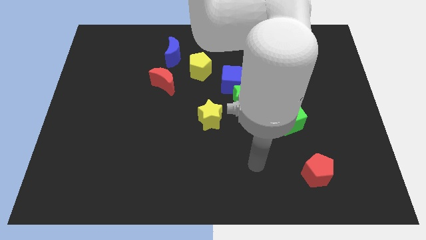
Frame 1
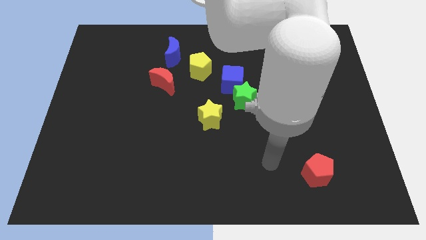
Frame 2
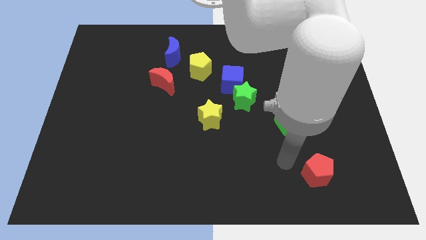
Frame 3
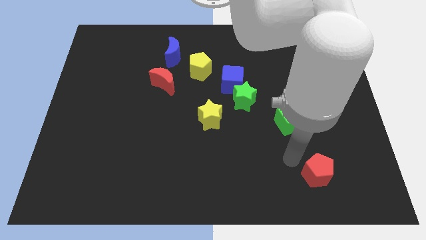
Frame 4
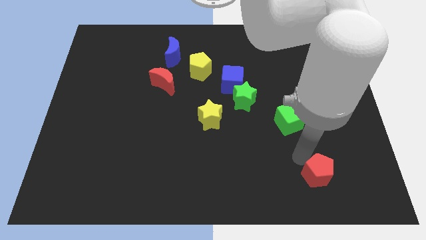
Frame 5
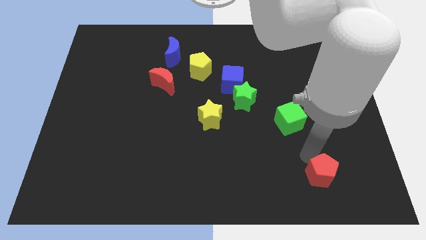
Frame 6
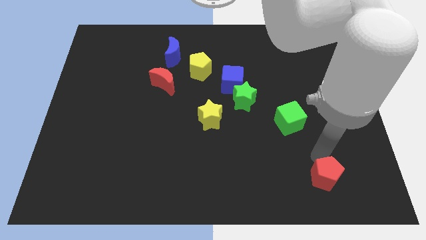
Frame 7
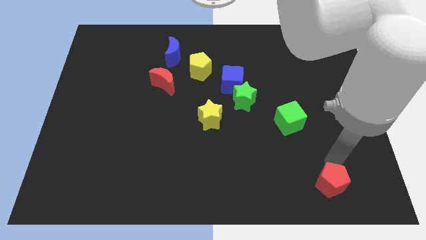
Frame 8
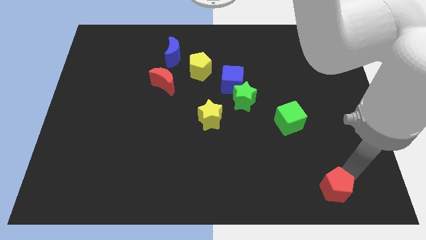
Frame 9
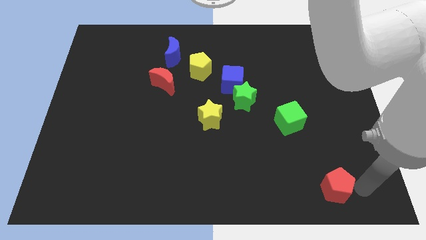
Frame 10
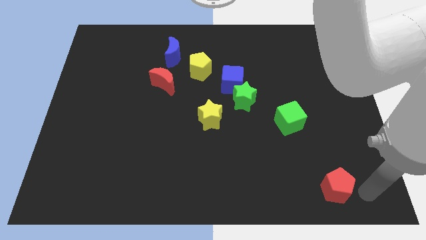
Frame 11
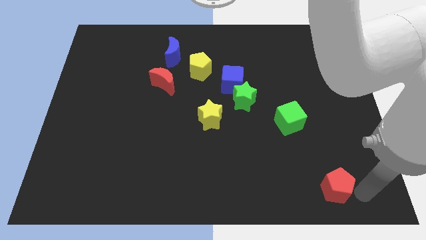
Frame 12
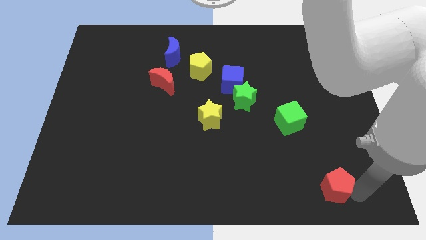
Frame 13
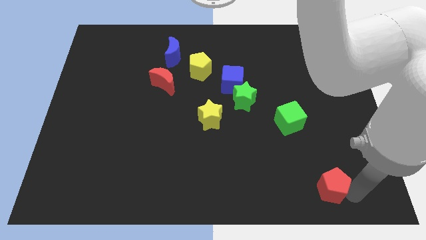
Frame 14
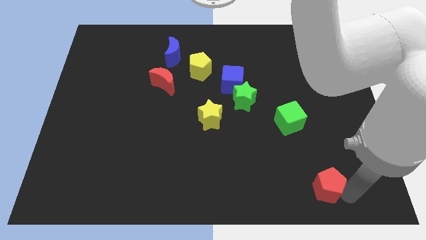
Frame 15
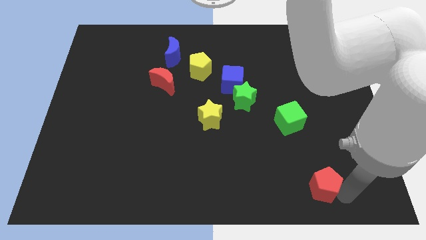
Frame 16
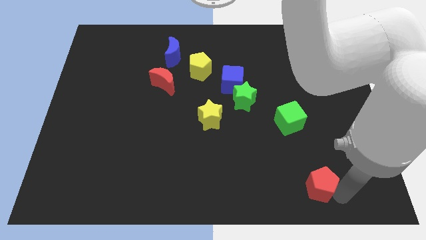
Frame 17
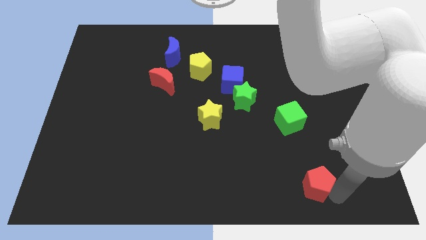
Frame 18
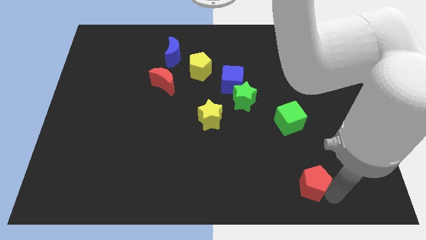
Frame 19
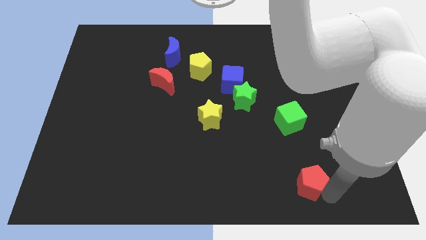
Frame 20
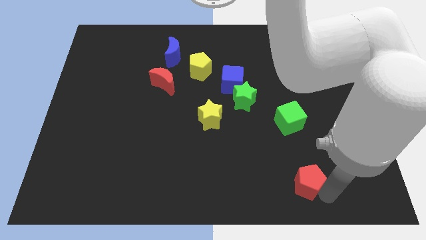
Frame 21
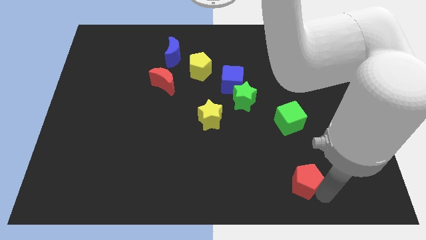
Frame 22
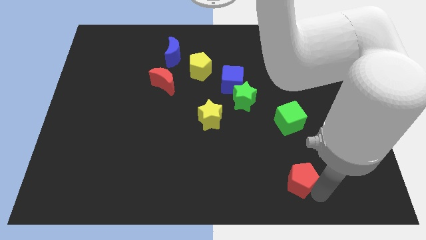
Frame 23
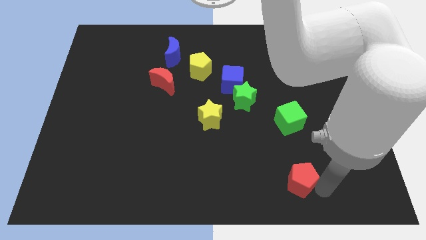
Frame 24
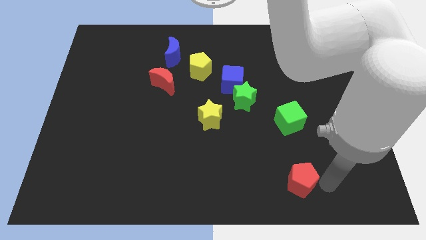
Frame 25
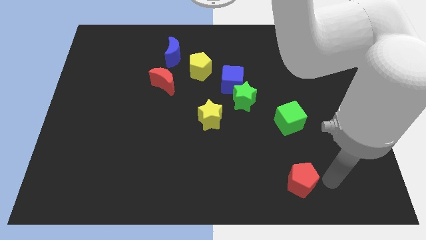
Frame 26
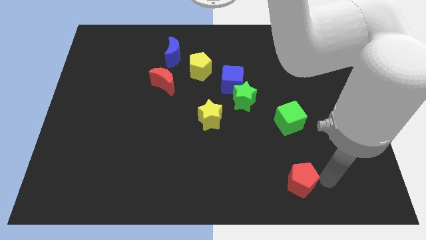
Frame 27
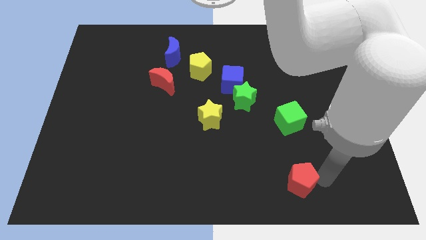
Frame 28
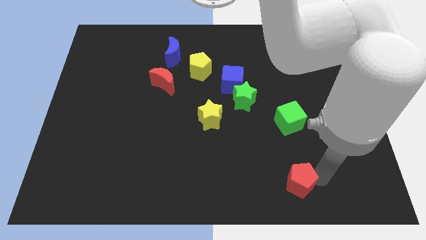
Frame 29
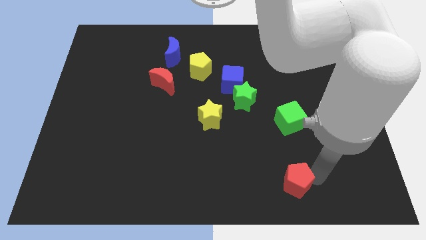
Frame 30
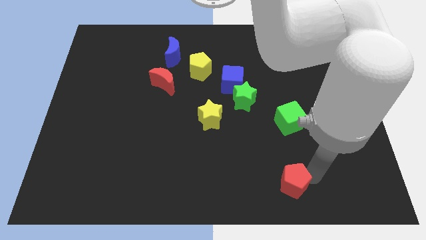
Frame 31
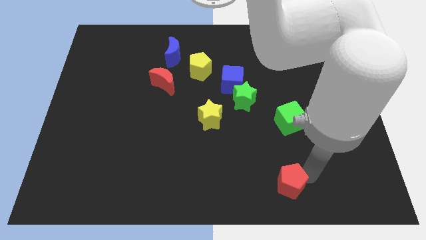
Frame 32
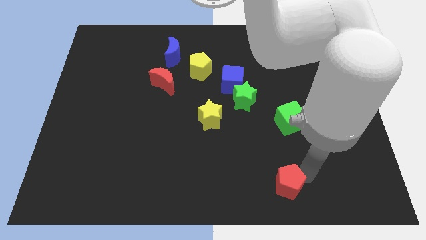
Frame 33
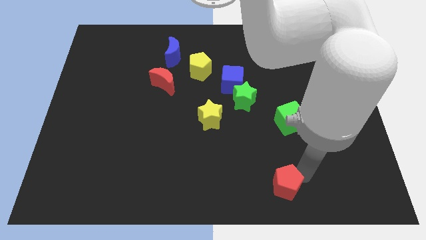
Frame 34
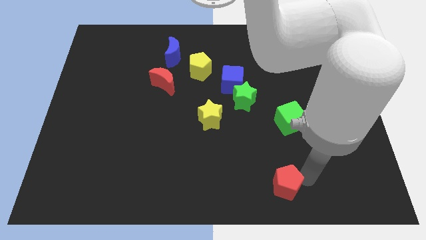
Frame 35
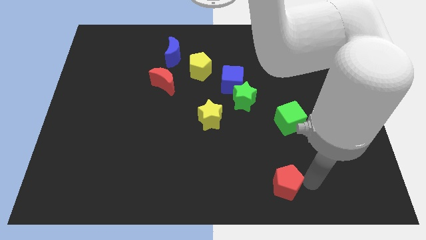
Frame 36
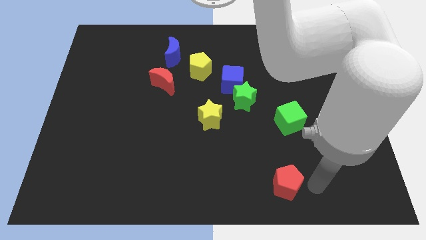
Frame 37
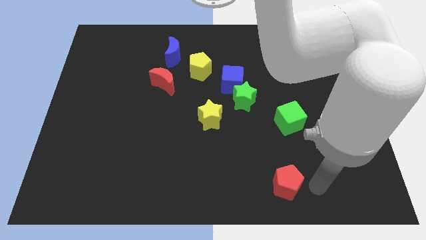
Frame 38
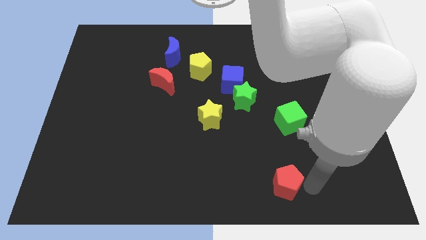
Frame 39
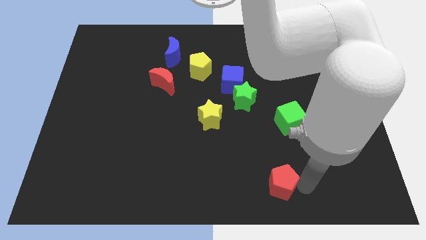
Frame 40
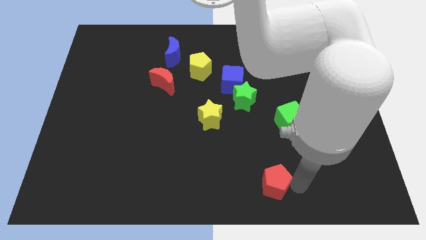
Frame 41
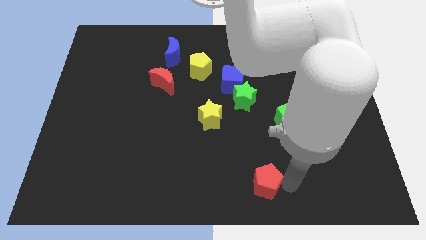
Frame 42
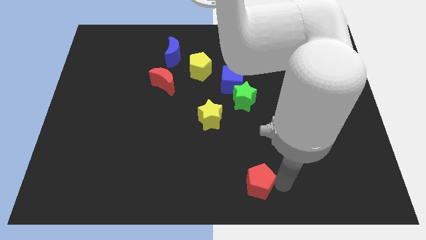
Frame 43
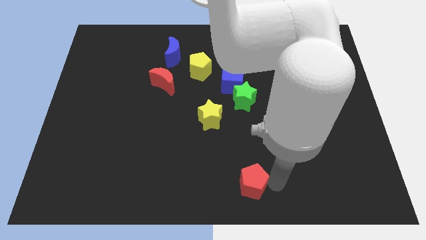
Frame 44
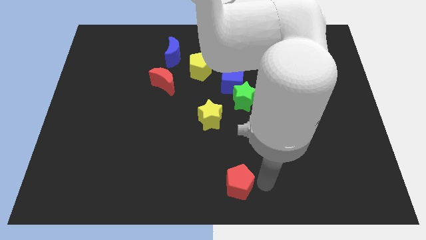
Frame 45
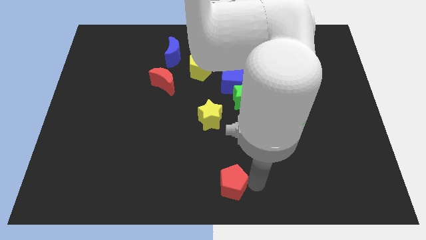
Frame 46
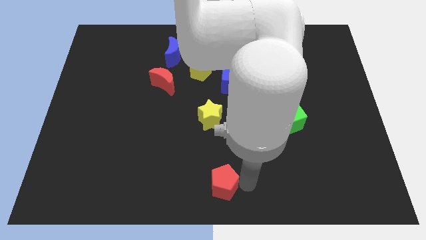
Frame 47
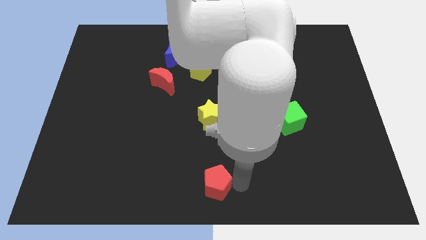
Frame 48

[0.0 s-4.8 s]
push the red pentagon left

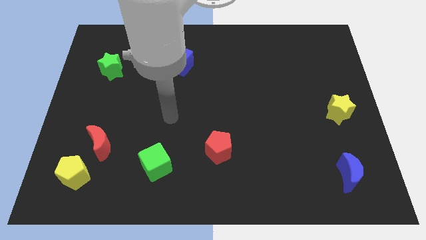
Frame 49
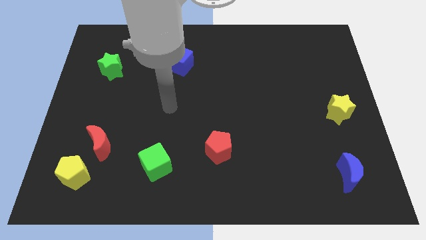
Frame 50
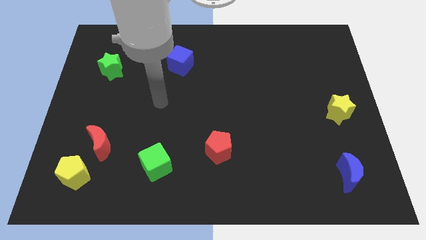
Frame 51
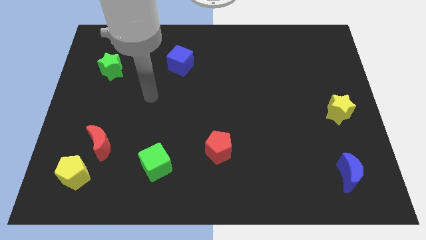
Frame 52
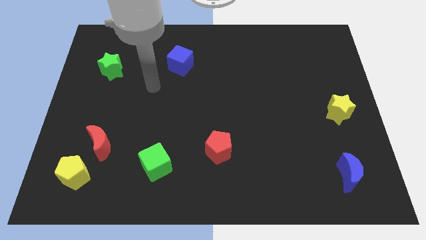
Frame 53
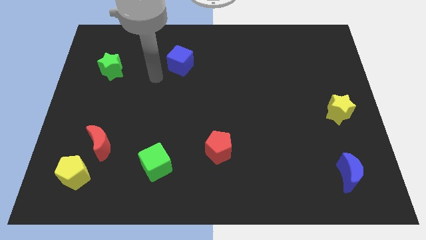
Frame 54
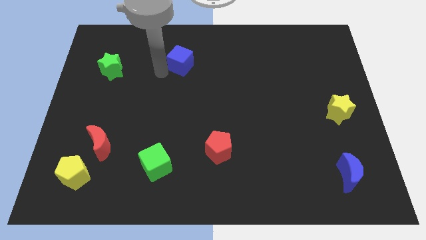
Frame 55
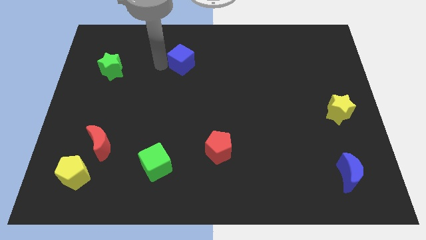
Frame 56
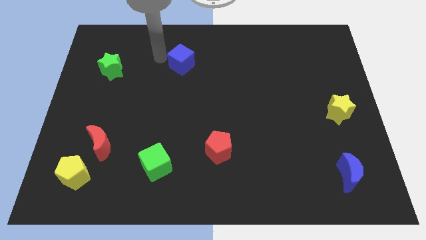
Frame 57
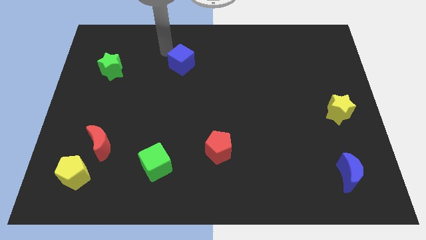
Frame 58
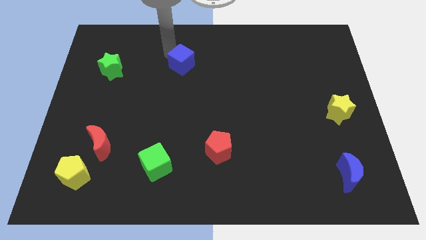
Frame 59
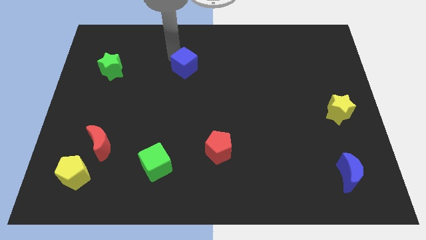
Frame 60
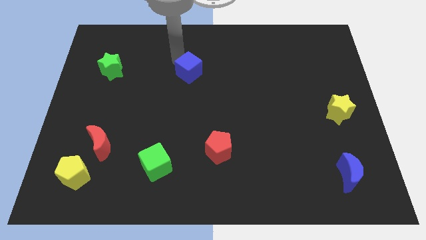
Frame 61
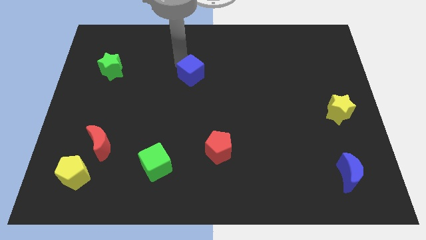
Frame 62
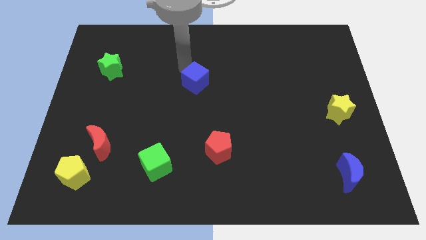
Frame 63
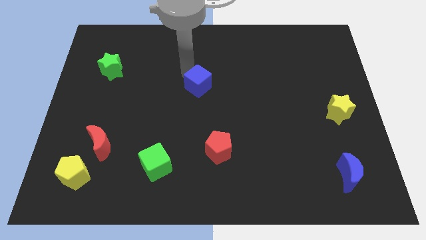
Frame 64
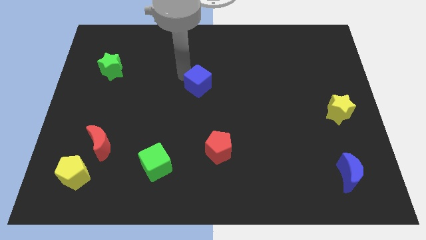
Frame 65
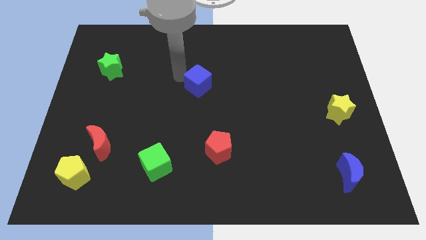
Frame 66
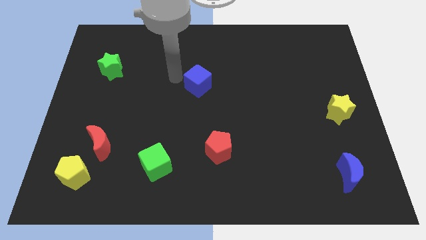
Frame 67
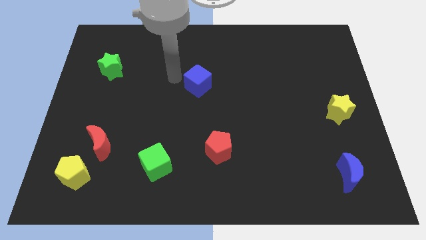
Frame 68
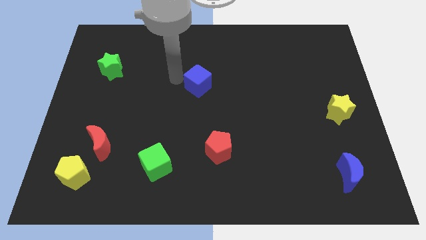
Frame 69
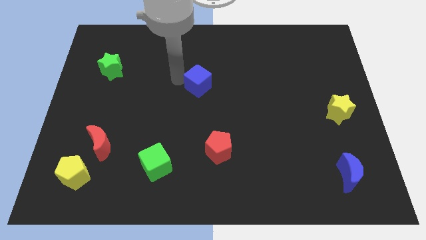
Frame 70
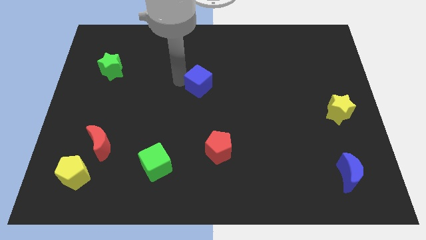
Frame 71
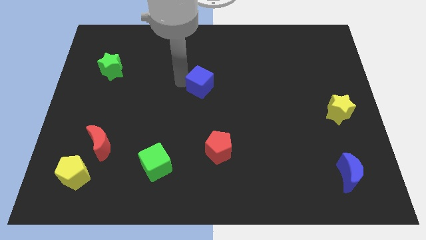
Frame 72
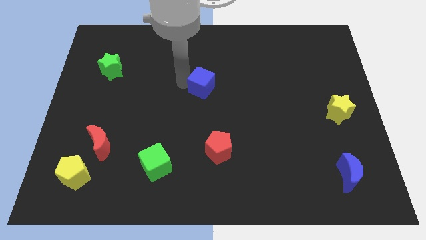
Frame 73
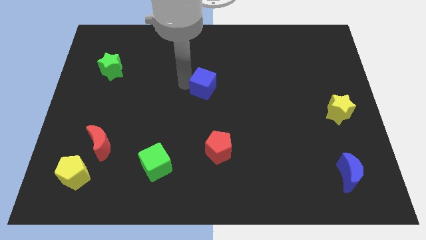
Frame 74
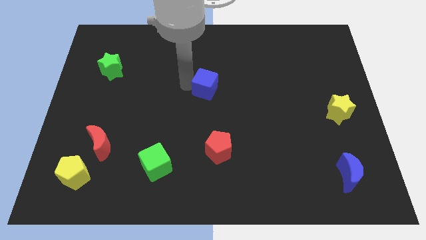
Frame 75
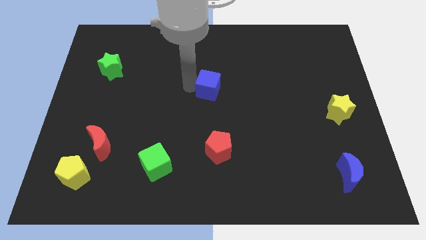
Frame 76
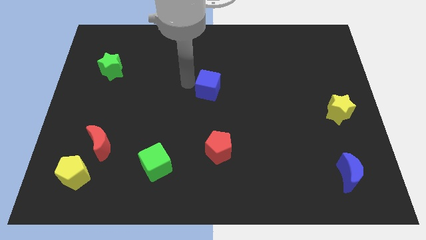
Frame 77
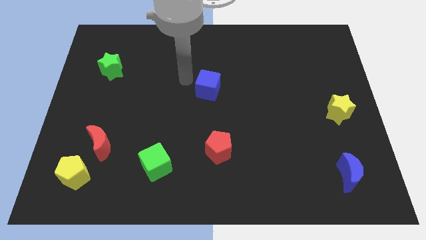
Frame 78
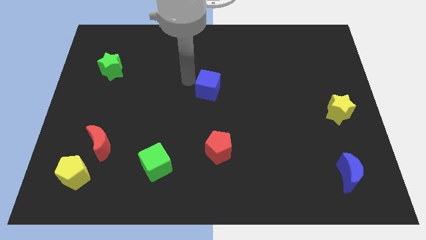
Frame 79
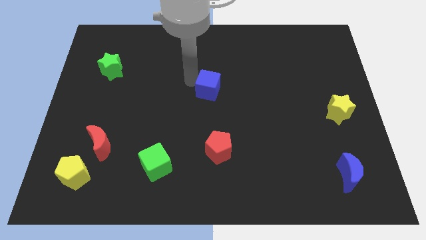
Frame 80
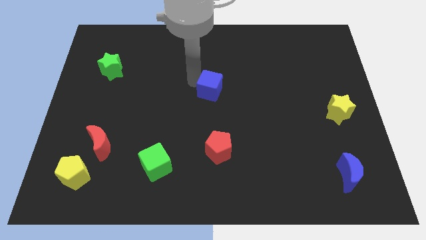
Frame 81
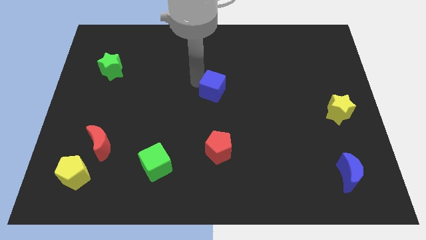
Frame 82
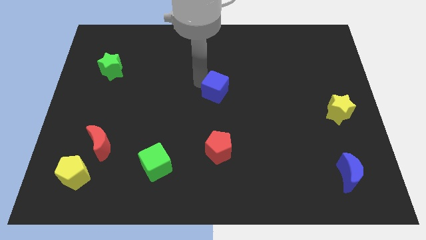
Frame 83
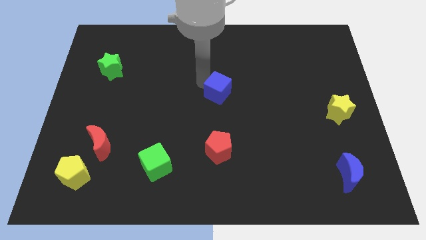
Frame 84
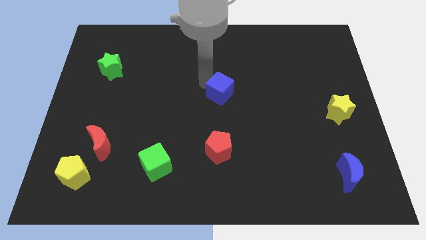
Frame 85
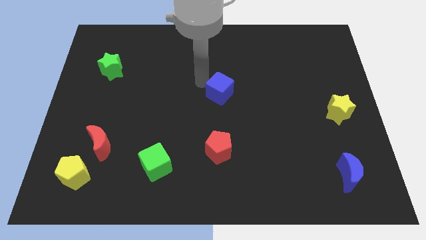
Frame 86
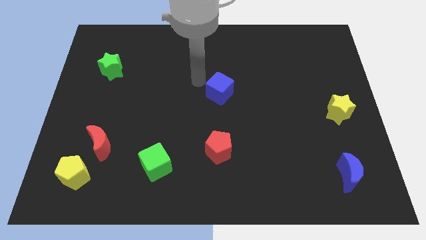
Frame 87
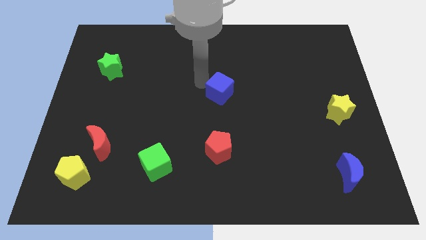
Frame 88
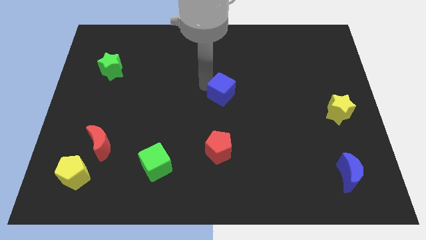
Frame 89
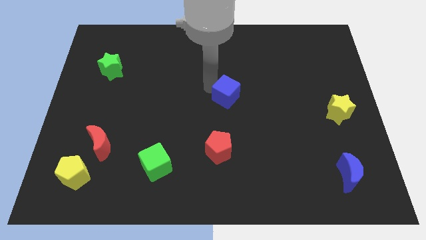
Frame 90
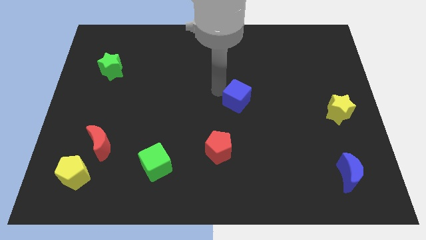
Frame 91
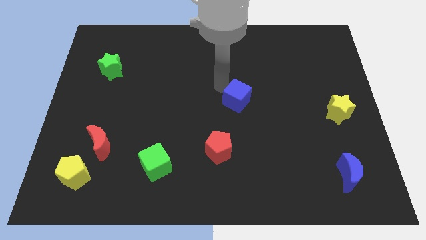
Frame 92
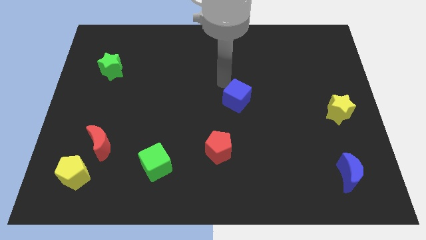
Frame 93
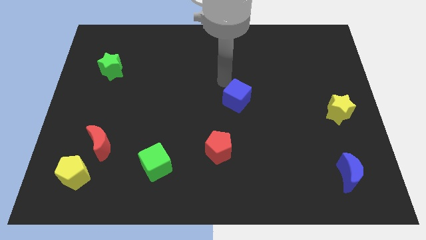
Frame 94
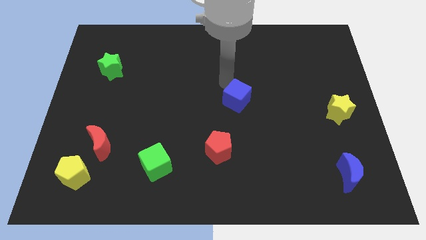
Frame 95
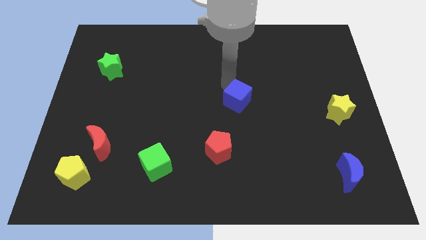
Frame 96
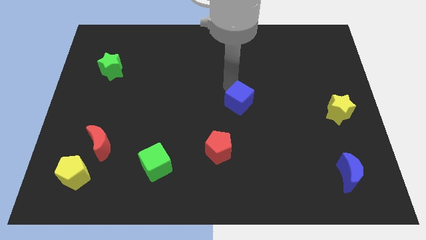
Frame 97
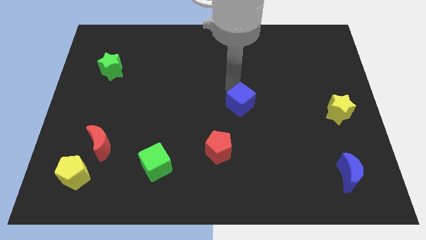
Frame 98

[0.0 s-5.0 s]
push the blue cube diagonally down and to the right
